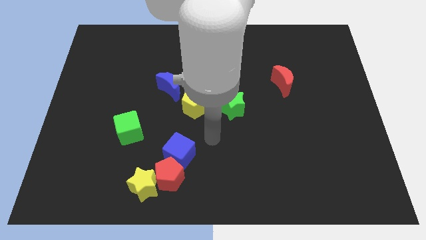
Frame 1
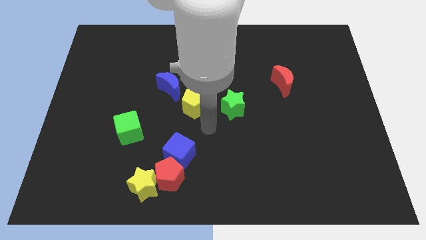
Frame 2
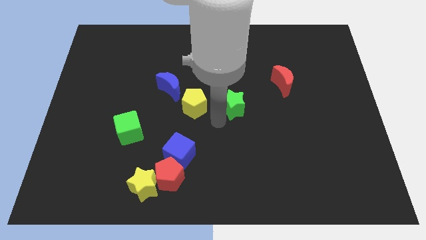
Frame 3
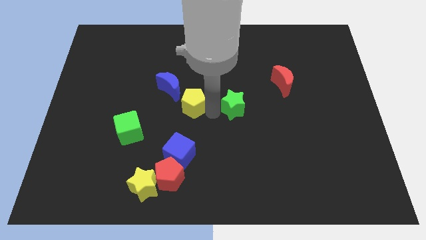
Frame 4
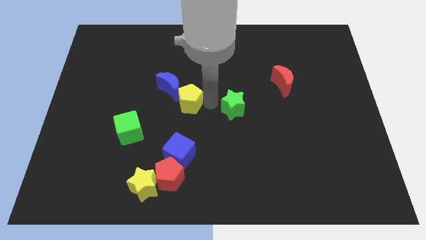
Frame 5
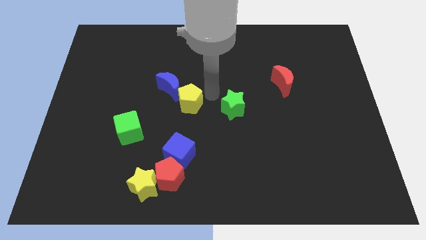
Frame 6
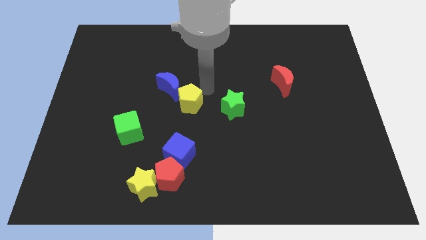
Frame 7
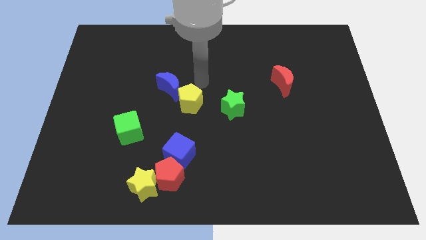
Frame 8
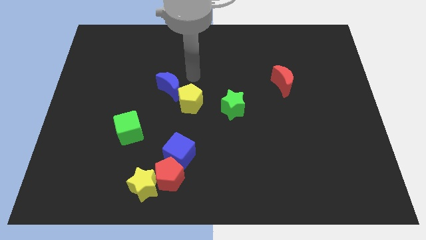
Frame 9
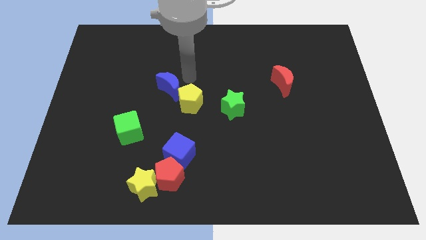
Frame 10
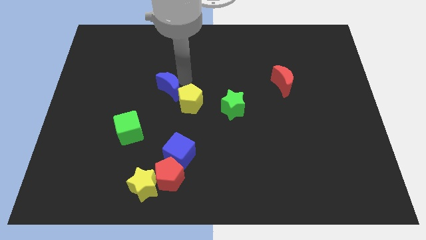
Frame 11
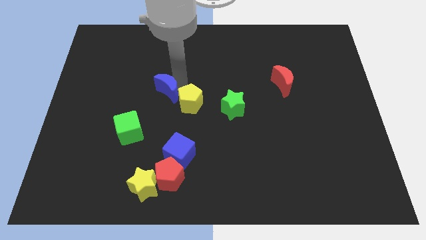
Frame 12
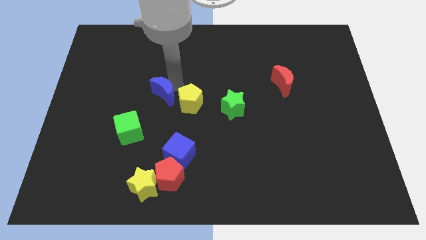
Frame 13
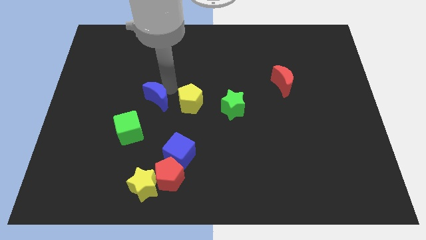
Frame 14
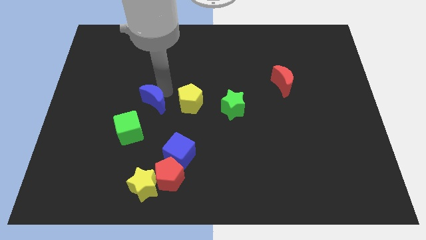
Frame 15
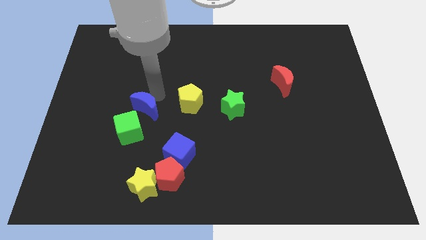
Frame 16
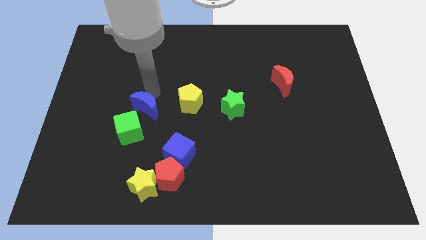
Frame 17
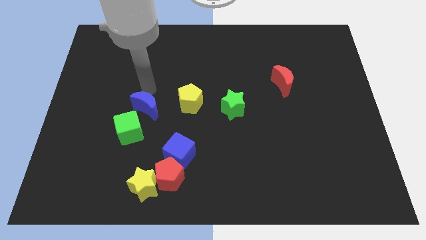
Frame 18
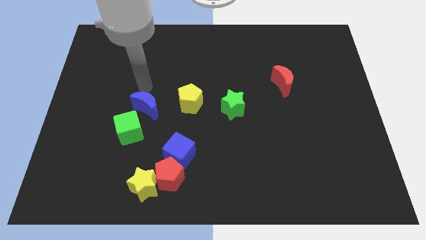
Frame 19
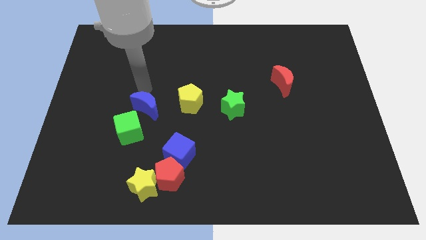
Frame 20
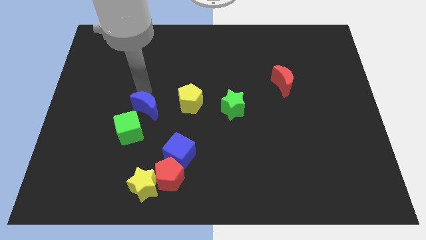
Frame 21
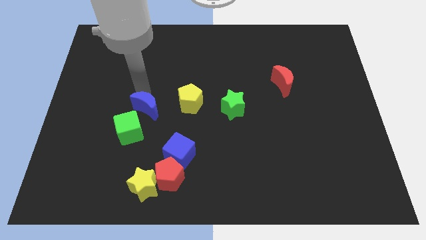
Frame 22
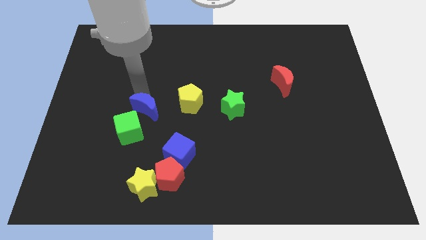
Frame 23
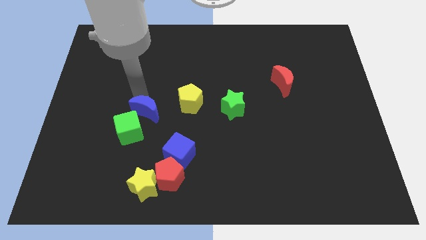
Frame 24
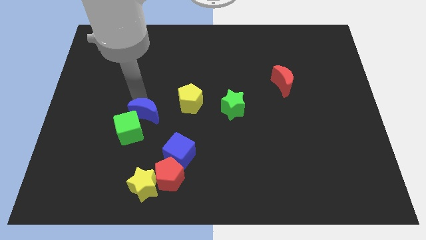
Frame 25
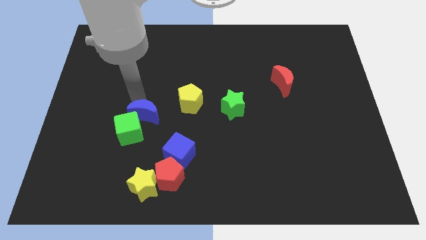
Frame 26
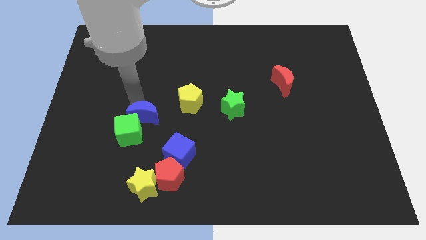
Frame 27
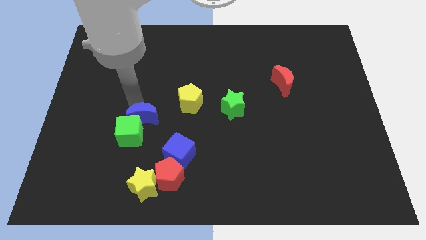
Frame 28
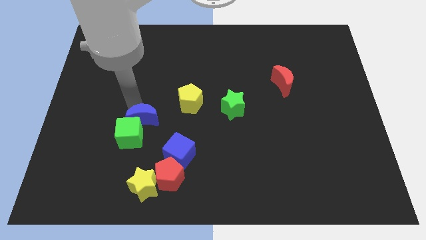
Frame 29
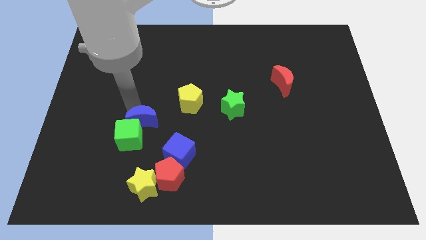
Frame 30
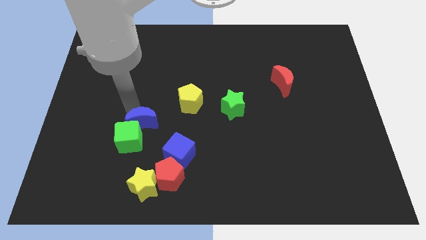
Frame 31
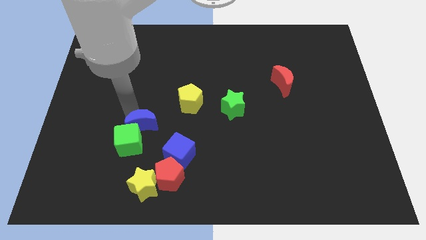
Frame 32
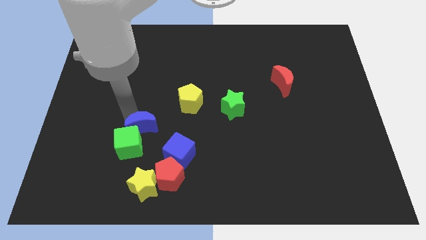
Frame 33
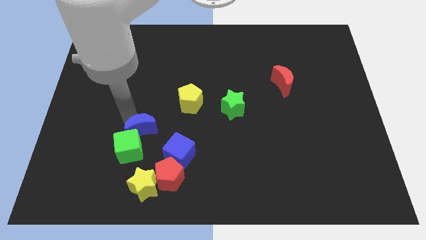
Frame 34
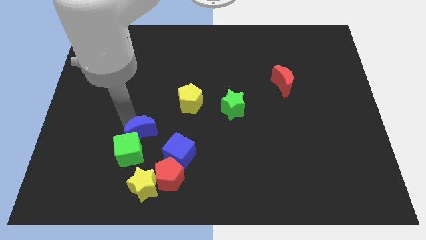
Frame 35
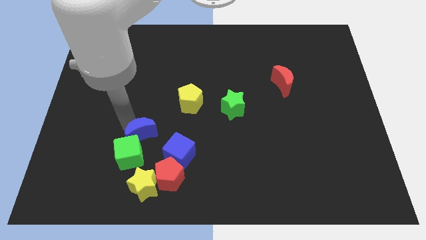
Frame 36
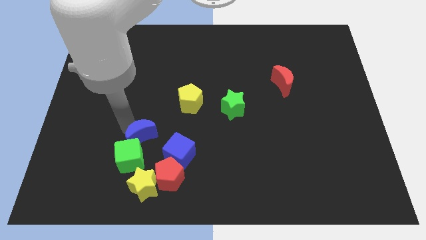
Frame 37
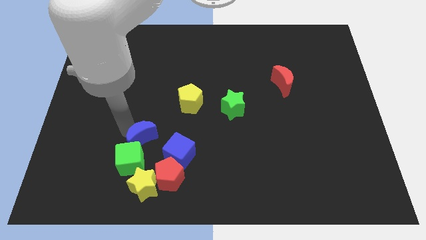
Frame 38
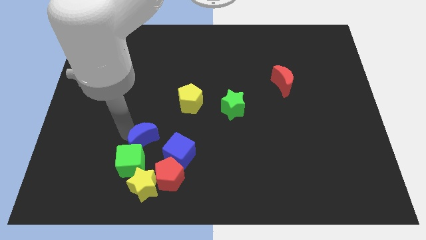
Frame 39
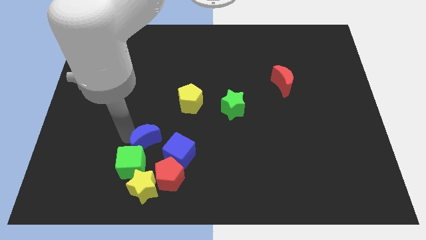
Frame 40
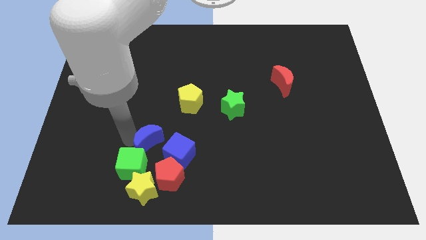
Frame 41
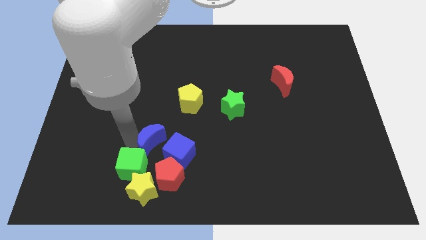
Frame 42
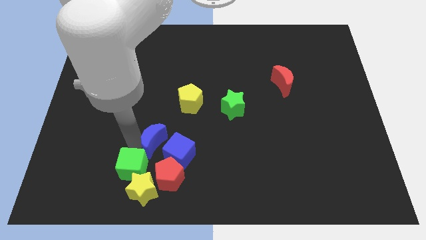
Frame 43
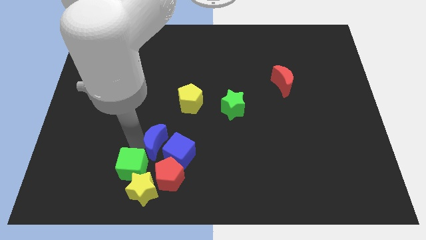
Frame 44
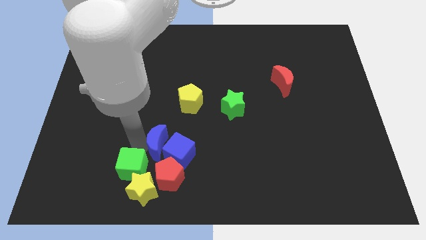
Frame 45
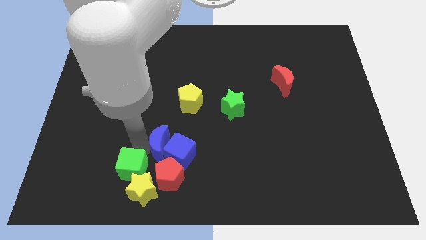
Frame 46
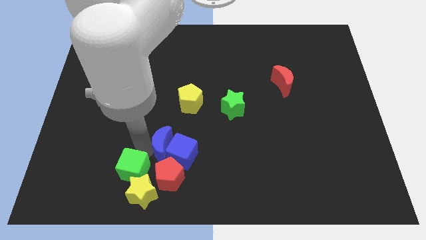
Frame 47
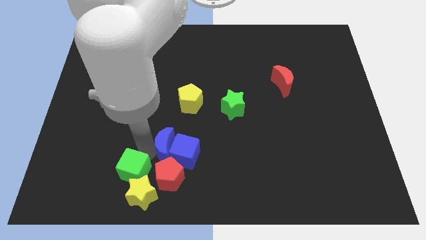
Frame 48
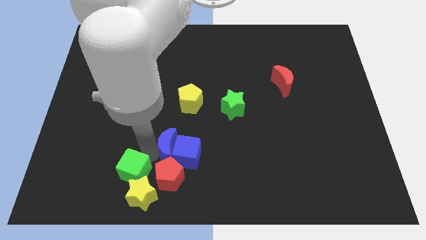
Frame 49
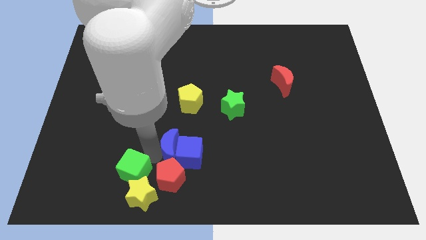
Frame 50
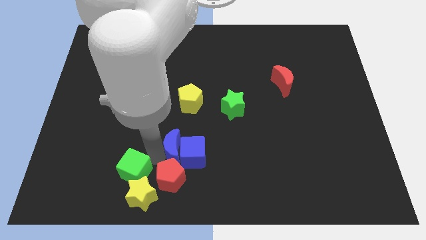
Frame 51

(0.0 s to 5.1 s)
move the blue moon downwards and then right a little bit

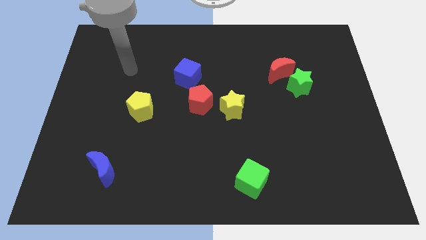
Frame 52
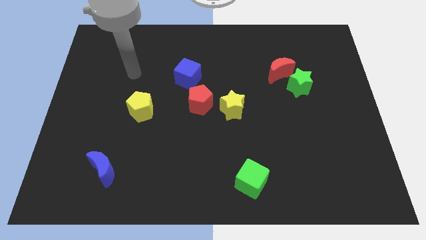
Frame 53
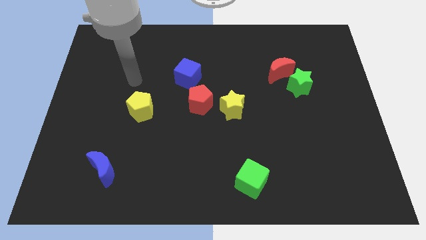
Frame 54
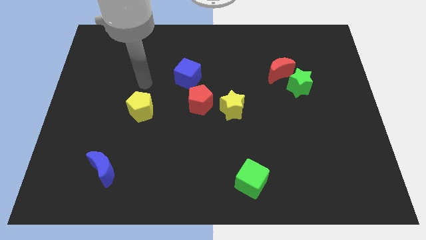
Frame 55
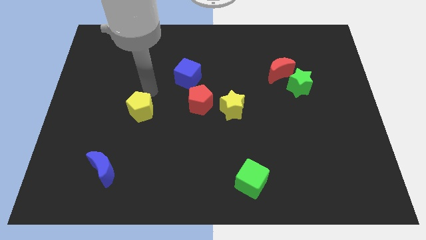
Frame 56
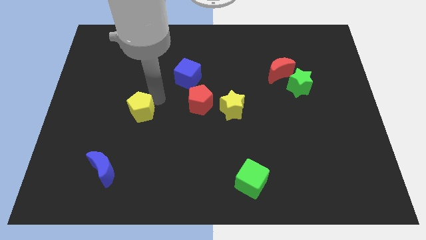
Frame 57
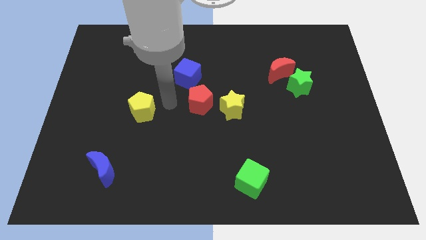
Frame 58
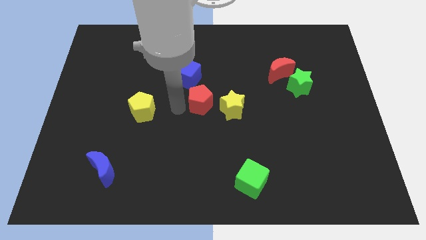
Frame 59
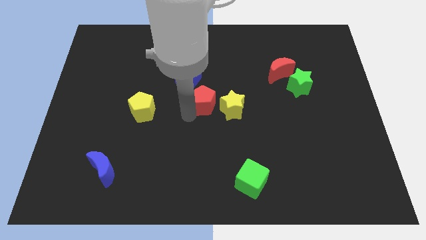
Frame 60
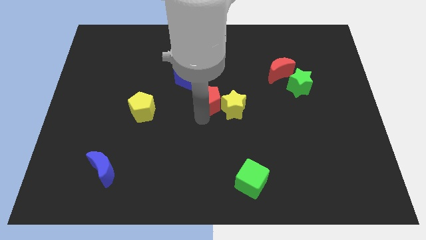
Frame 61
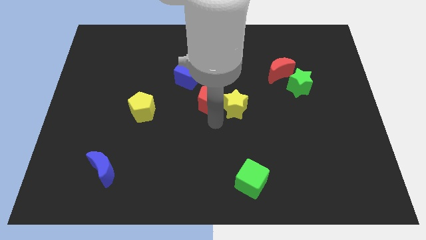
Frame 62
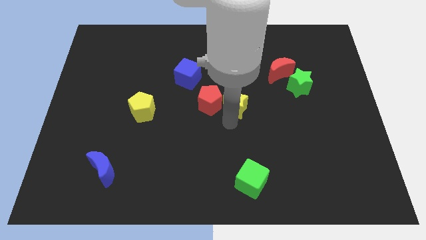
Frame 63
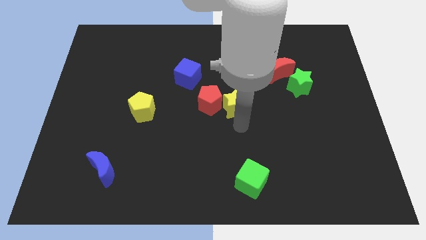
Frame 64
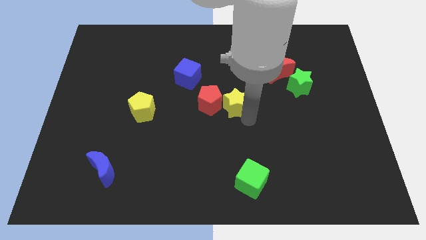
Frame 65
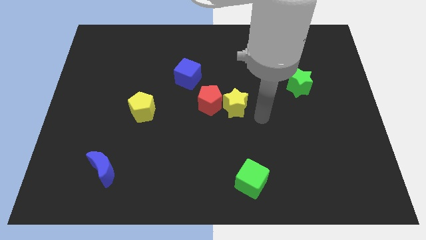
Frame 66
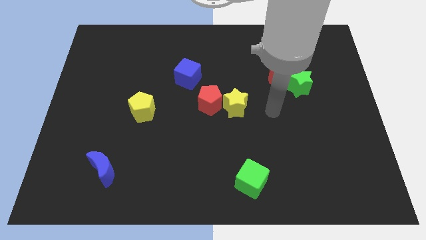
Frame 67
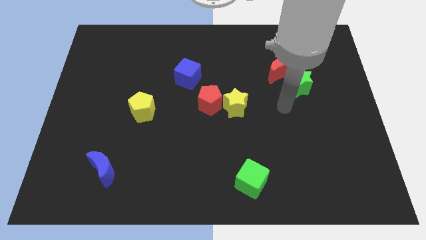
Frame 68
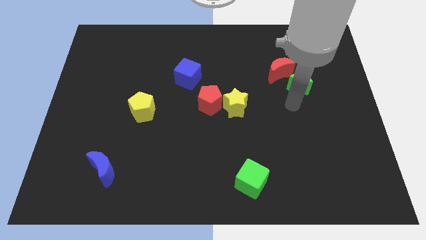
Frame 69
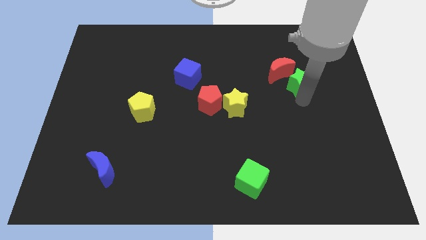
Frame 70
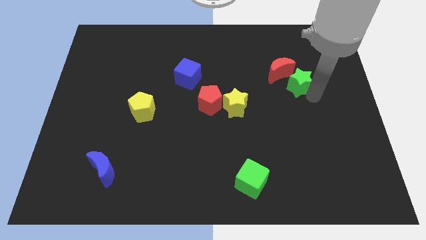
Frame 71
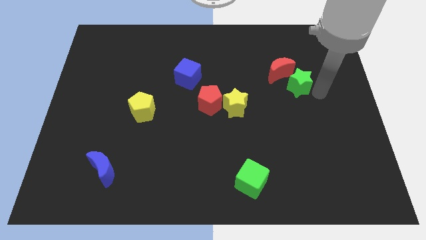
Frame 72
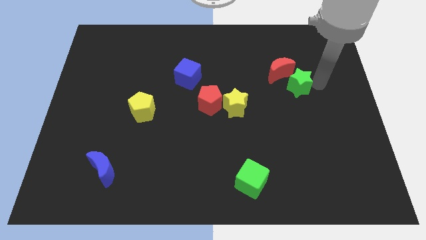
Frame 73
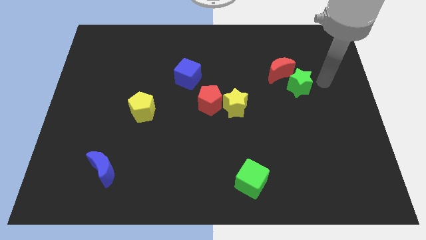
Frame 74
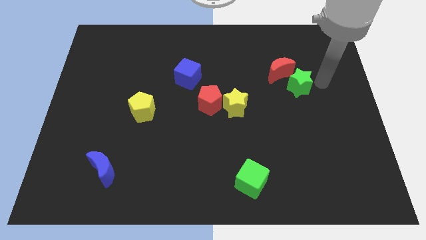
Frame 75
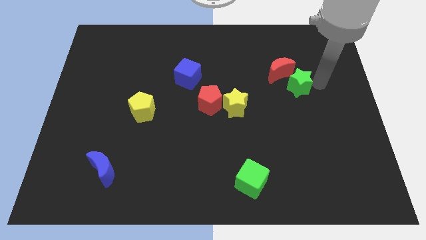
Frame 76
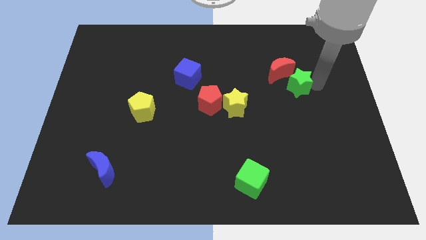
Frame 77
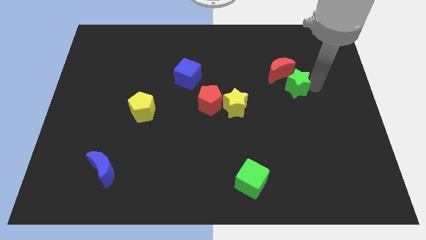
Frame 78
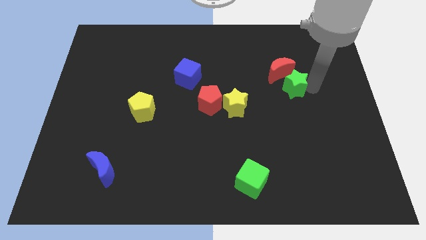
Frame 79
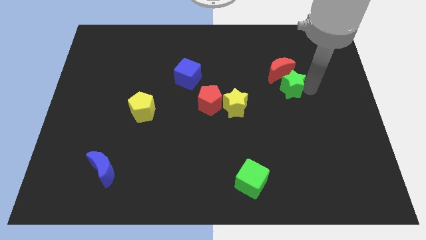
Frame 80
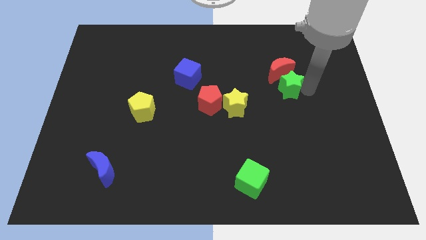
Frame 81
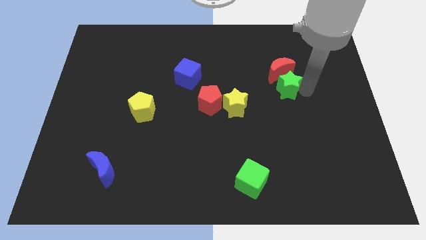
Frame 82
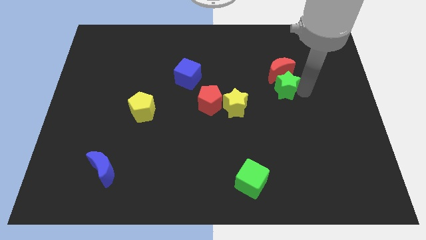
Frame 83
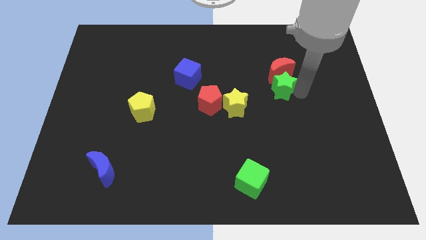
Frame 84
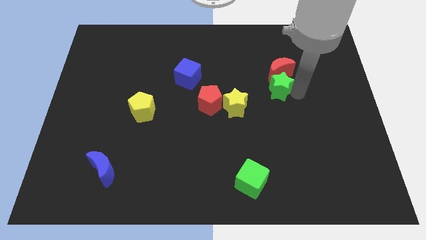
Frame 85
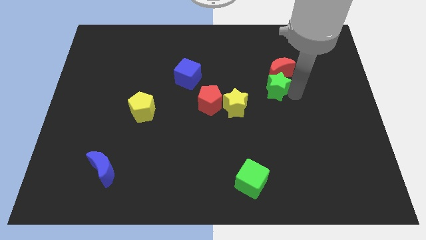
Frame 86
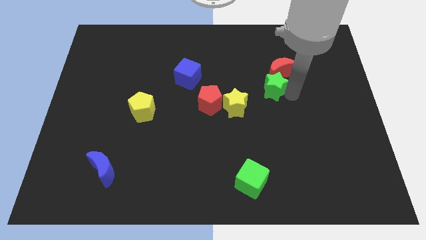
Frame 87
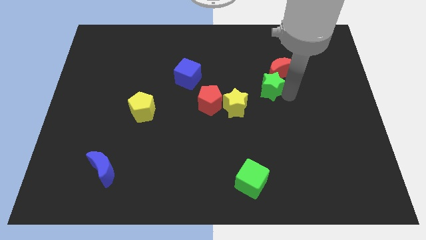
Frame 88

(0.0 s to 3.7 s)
move the green star somewhat left
